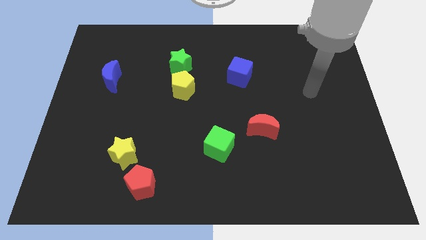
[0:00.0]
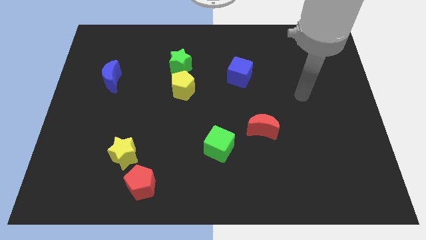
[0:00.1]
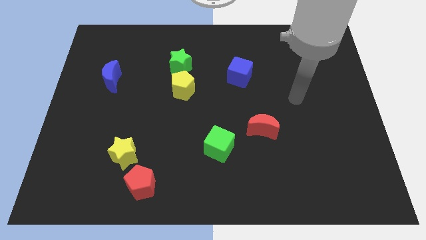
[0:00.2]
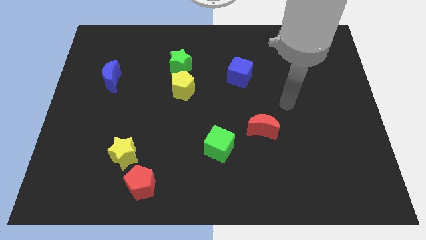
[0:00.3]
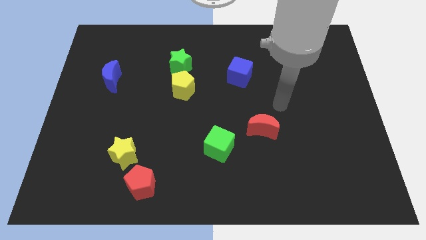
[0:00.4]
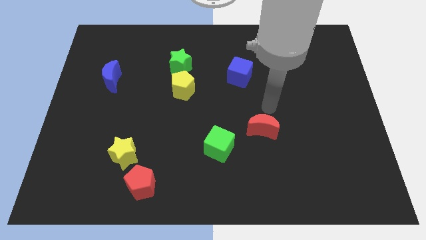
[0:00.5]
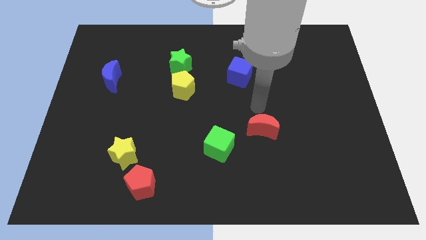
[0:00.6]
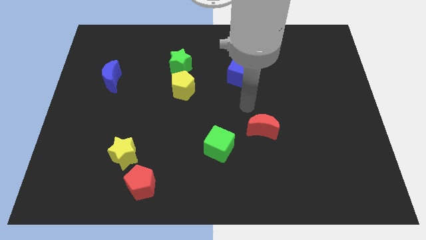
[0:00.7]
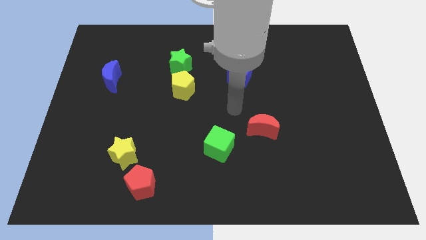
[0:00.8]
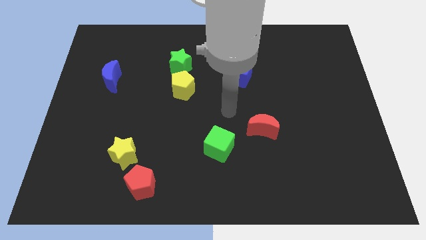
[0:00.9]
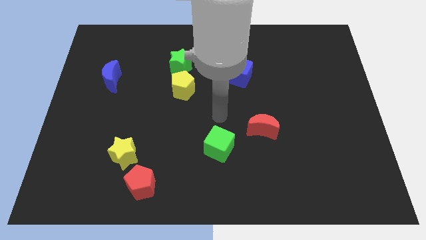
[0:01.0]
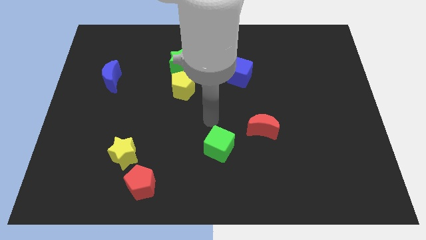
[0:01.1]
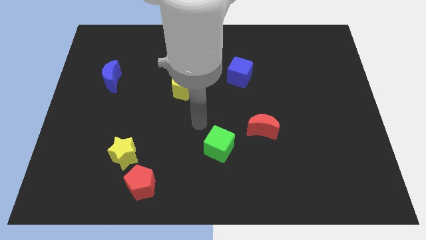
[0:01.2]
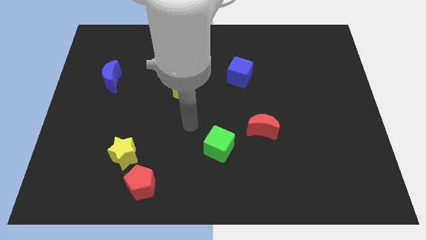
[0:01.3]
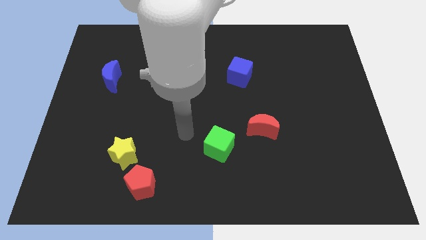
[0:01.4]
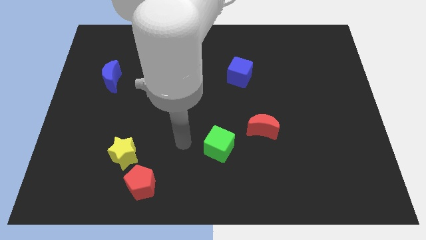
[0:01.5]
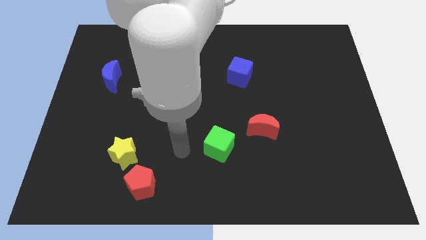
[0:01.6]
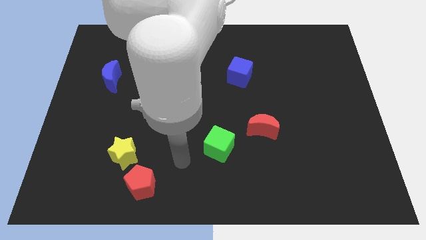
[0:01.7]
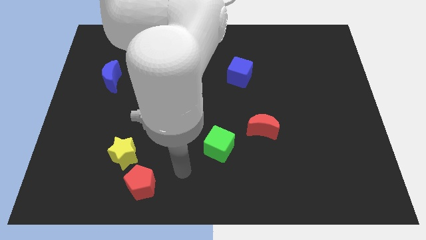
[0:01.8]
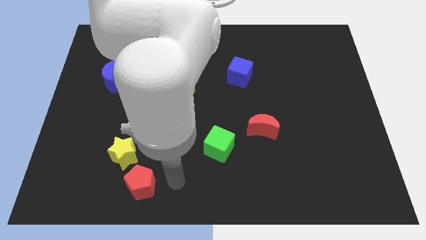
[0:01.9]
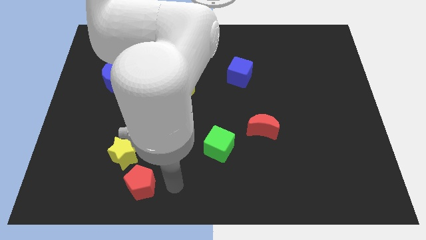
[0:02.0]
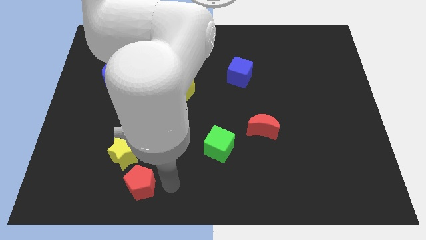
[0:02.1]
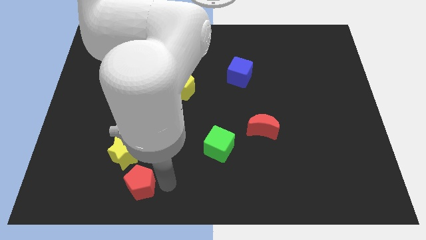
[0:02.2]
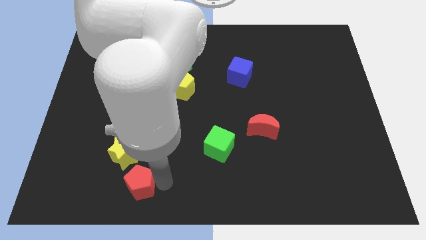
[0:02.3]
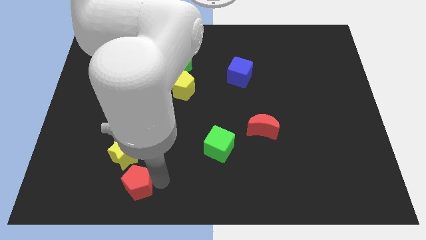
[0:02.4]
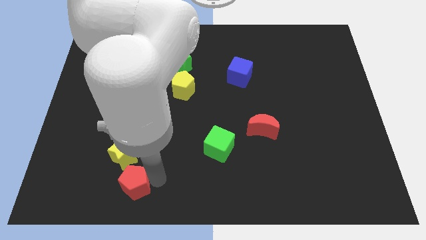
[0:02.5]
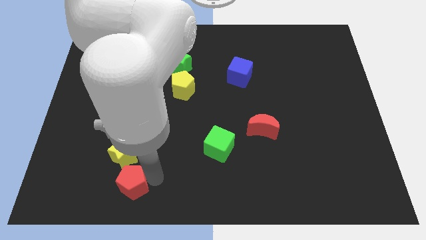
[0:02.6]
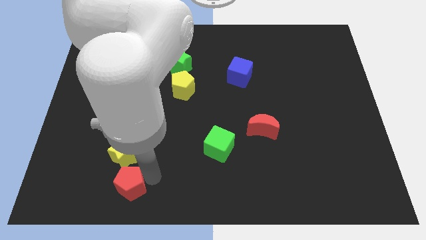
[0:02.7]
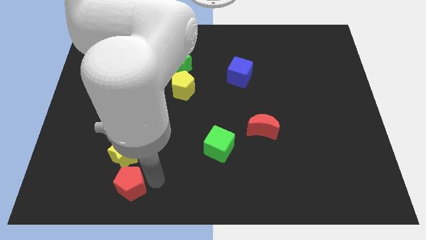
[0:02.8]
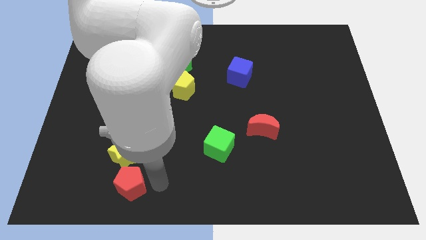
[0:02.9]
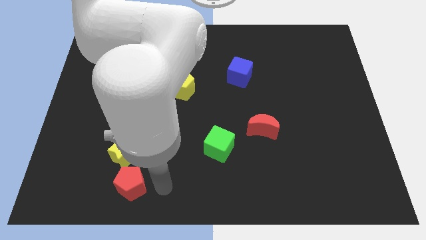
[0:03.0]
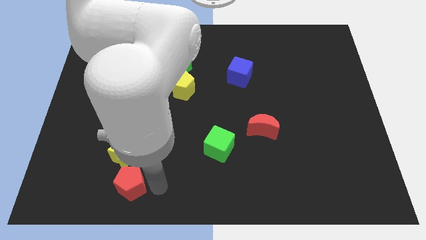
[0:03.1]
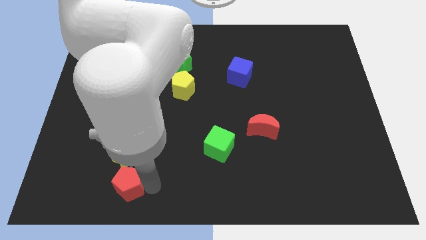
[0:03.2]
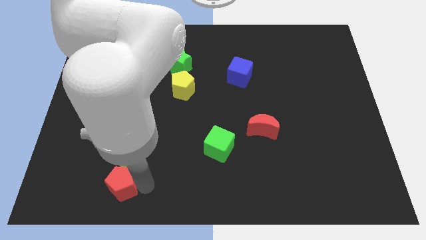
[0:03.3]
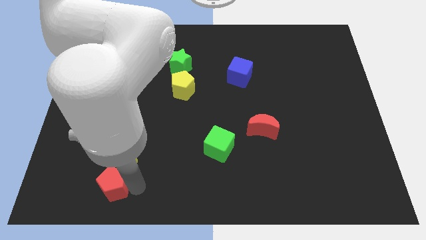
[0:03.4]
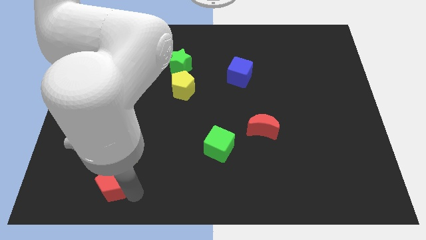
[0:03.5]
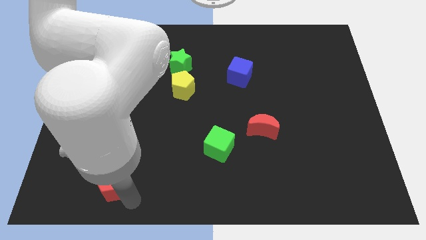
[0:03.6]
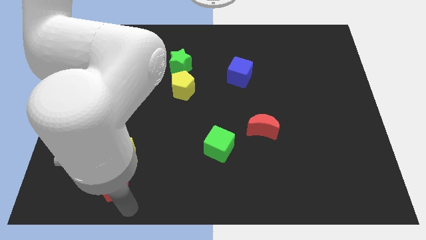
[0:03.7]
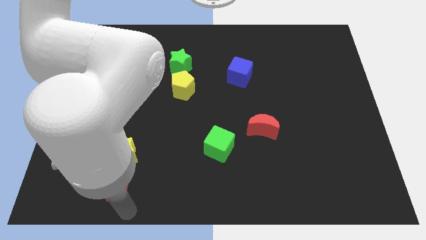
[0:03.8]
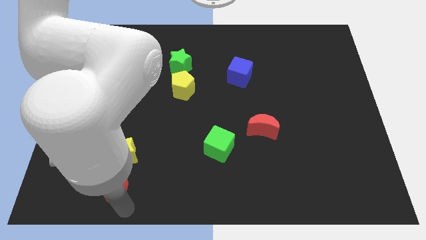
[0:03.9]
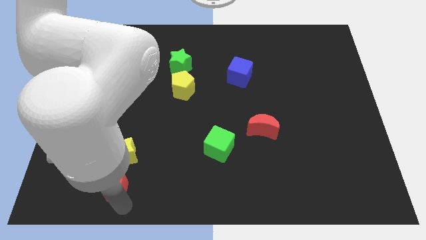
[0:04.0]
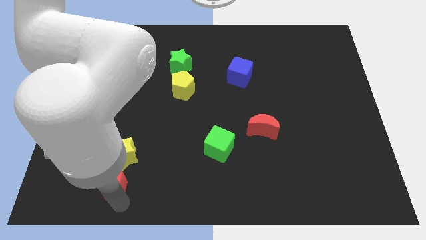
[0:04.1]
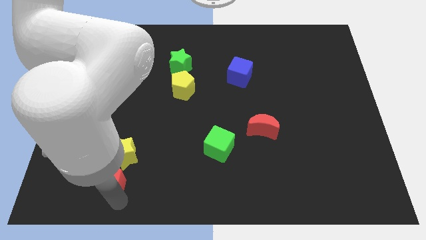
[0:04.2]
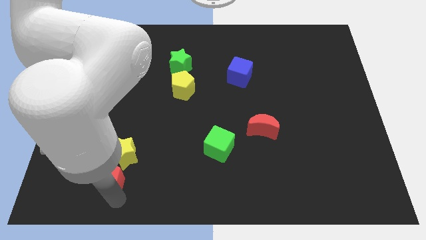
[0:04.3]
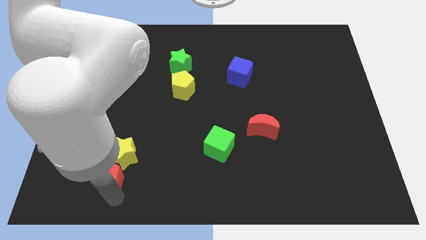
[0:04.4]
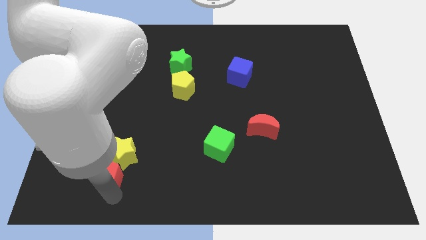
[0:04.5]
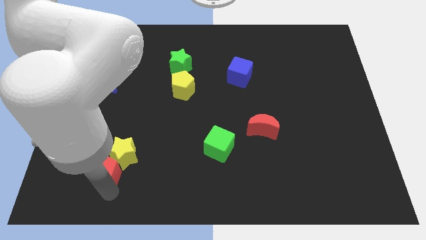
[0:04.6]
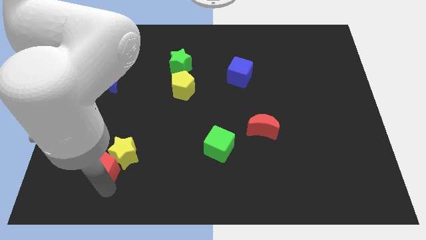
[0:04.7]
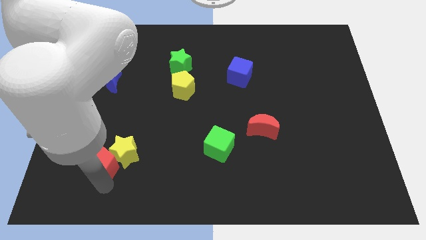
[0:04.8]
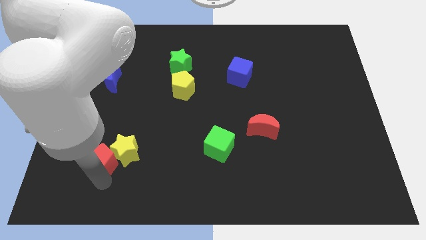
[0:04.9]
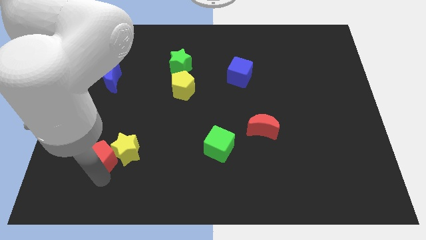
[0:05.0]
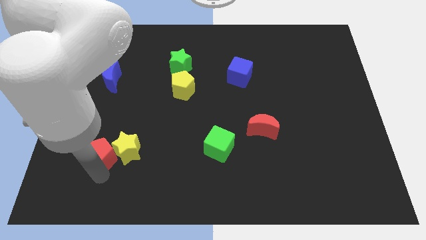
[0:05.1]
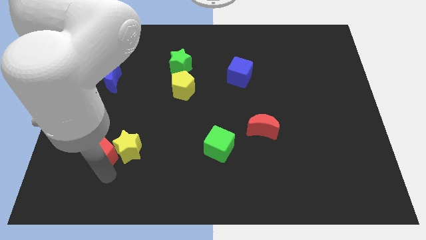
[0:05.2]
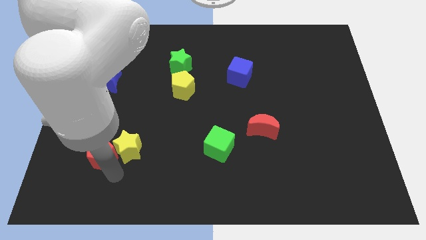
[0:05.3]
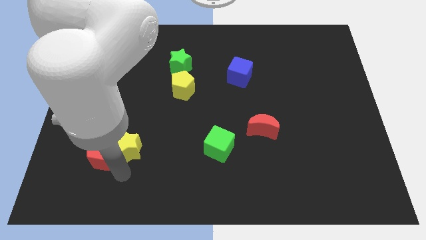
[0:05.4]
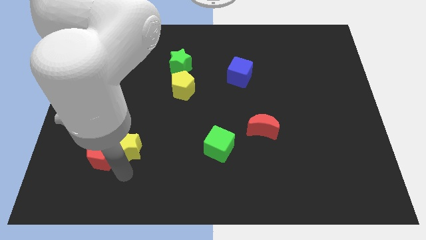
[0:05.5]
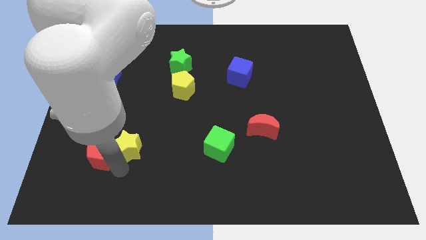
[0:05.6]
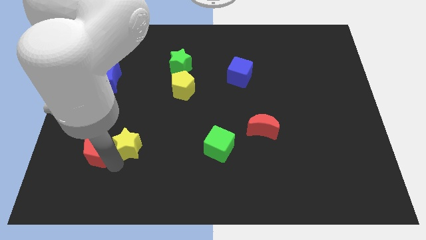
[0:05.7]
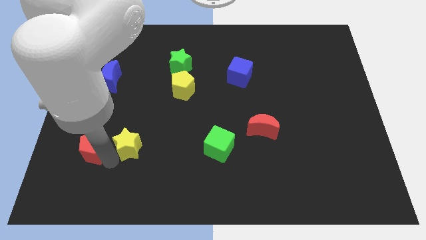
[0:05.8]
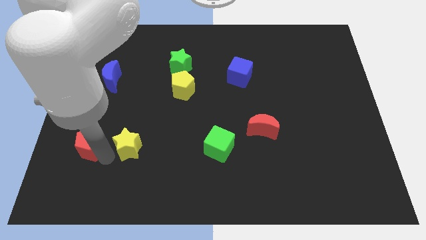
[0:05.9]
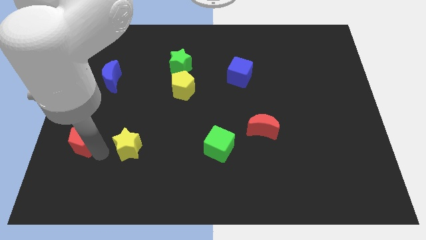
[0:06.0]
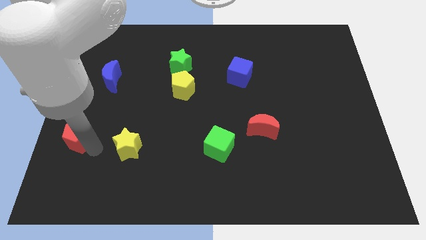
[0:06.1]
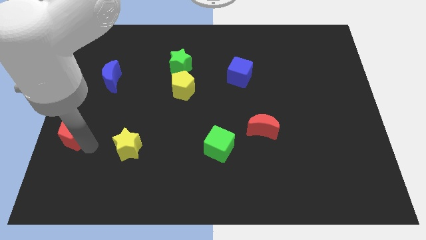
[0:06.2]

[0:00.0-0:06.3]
slide the red pentagon to the left side of the board
